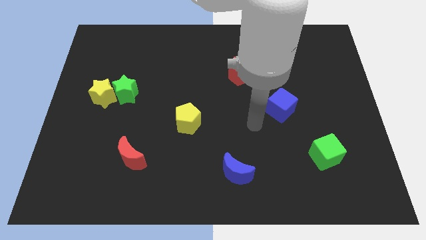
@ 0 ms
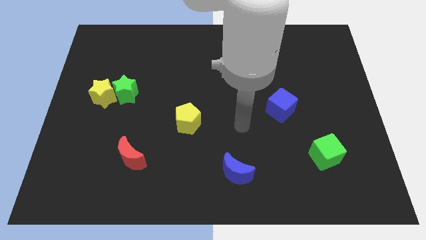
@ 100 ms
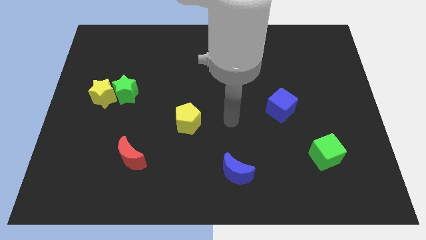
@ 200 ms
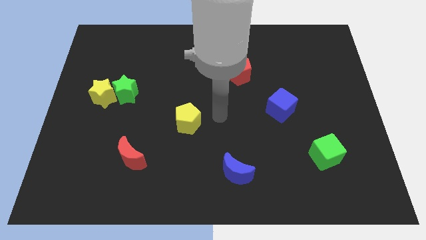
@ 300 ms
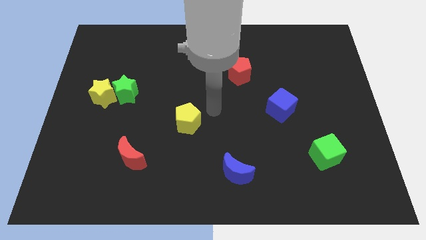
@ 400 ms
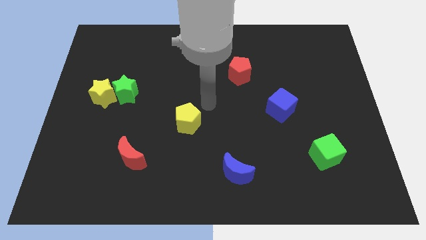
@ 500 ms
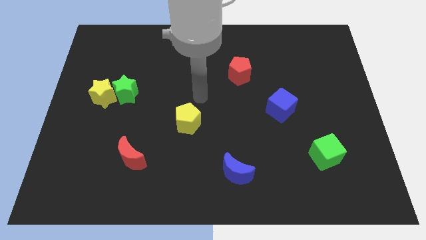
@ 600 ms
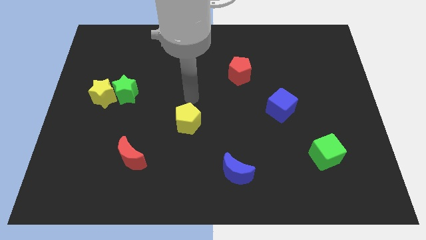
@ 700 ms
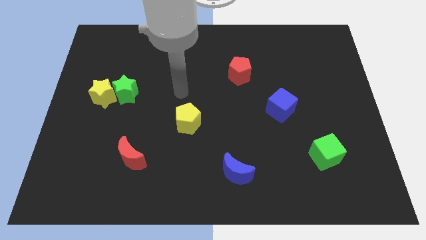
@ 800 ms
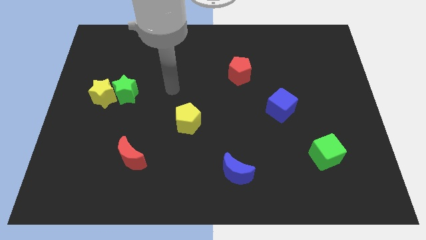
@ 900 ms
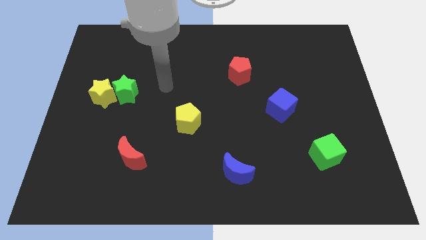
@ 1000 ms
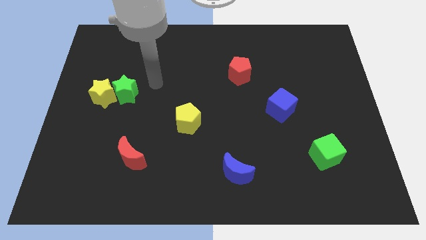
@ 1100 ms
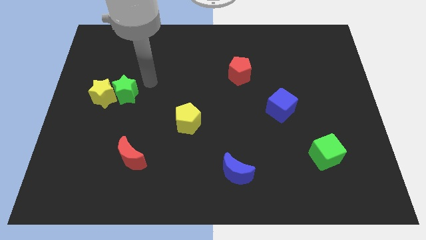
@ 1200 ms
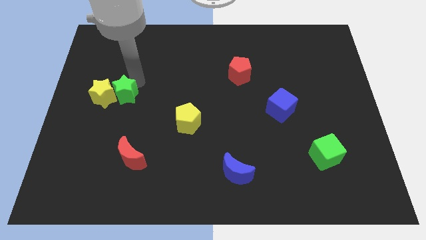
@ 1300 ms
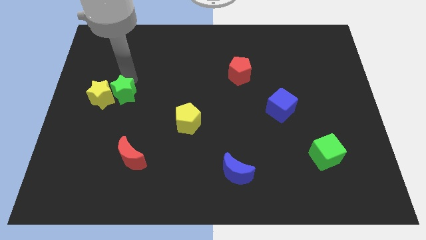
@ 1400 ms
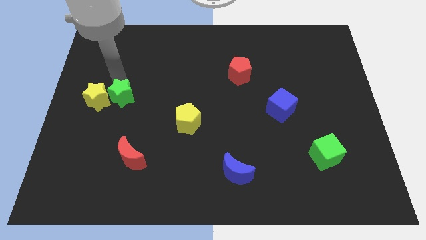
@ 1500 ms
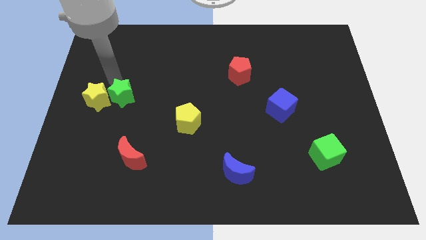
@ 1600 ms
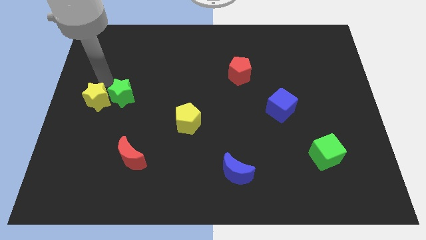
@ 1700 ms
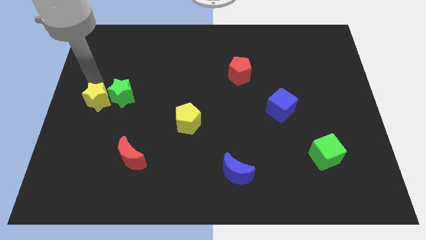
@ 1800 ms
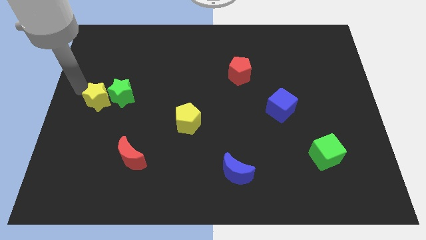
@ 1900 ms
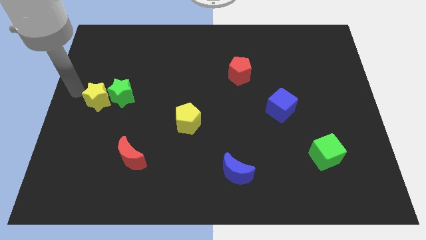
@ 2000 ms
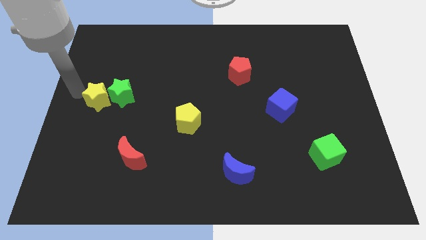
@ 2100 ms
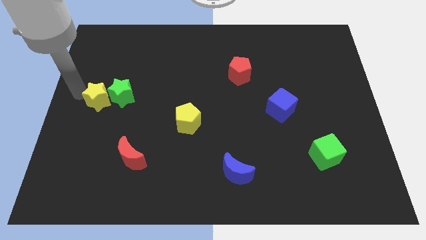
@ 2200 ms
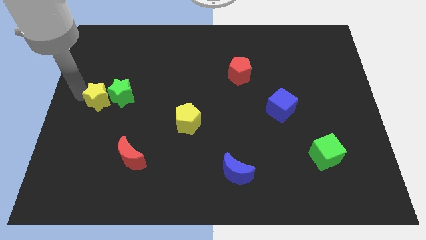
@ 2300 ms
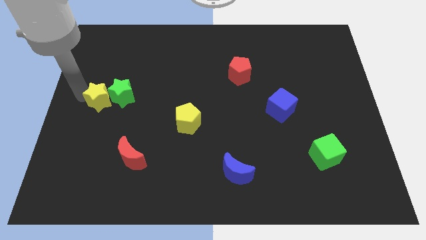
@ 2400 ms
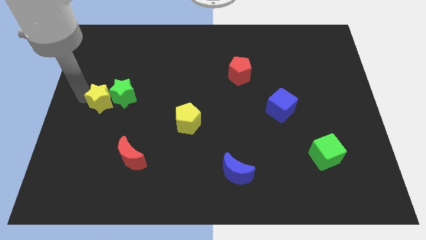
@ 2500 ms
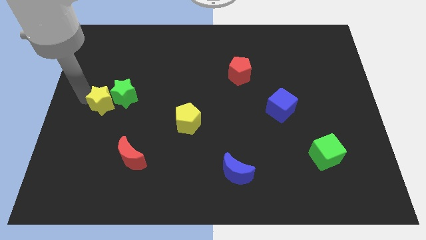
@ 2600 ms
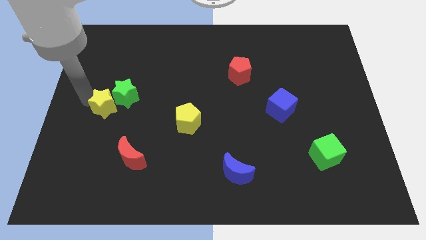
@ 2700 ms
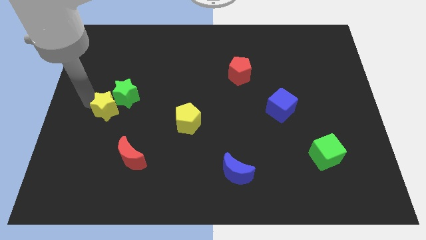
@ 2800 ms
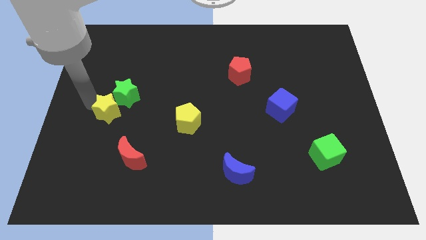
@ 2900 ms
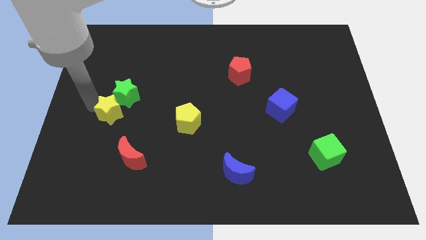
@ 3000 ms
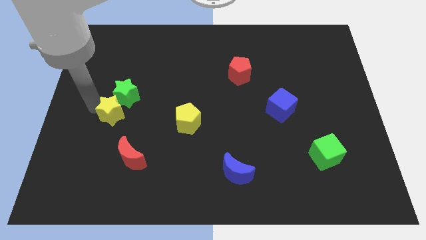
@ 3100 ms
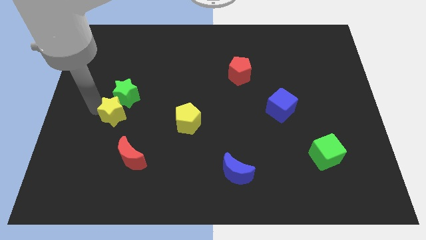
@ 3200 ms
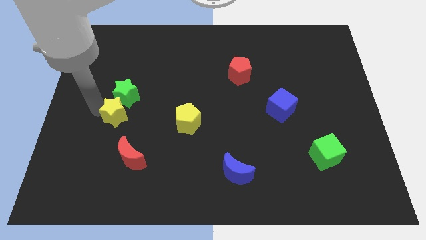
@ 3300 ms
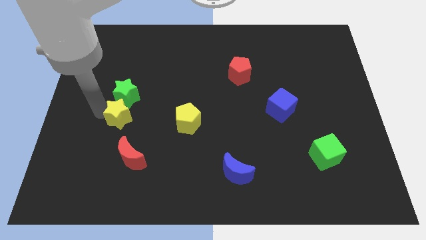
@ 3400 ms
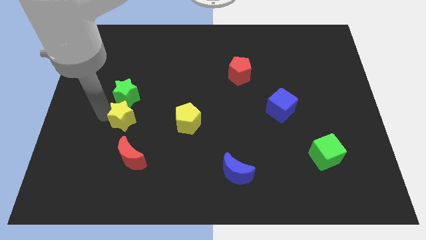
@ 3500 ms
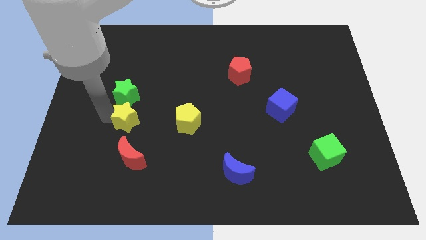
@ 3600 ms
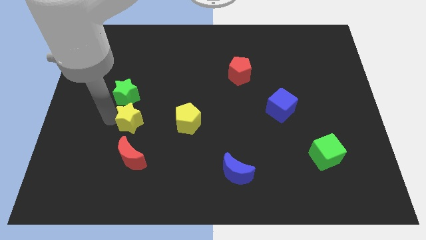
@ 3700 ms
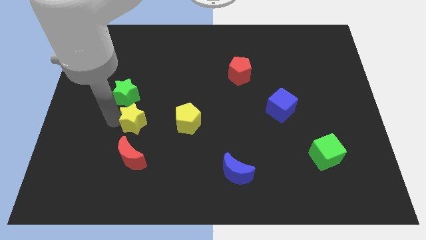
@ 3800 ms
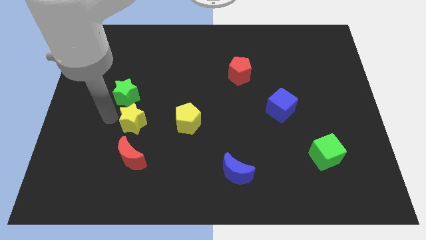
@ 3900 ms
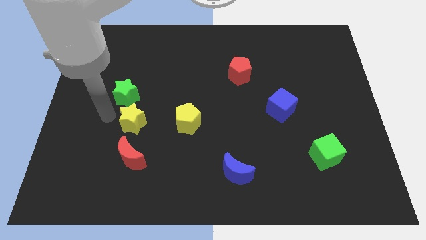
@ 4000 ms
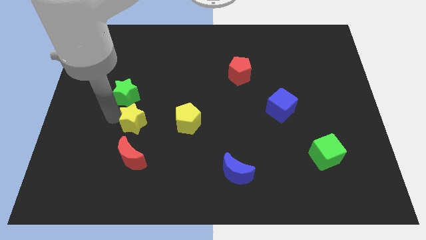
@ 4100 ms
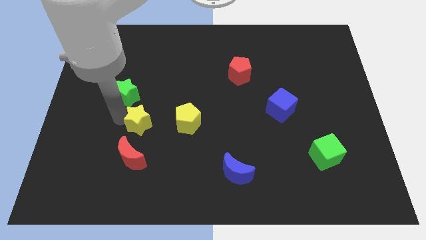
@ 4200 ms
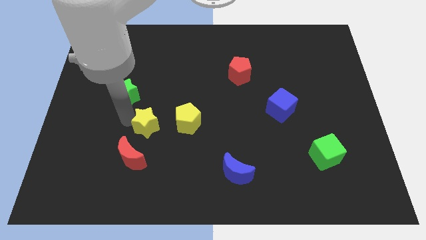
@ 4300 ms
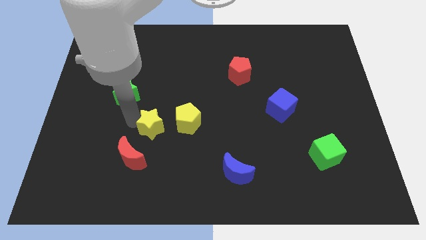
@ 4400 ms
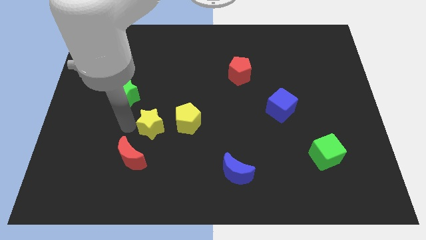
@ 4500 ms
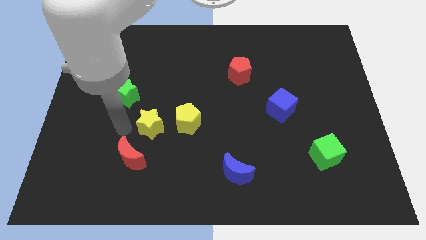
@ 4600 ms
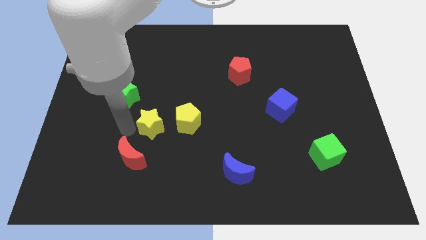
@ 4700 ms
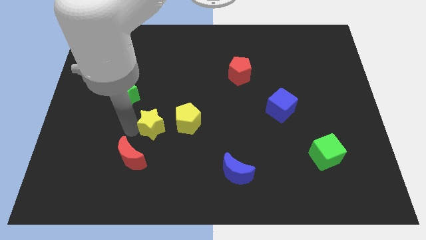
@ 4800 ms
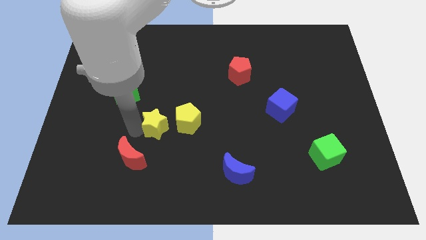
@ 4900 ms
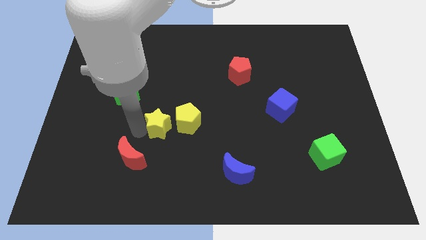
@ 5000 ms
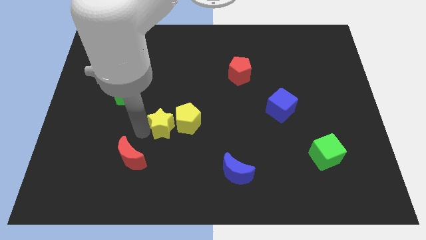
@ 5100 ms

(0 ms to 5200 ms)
move the yellow star close to the yellow pentagon

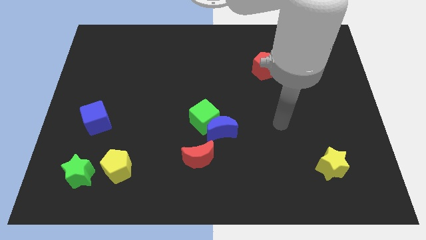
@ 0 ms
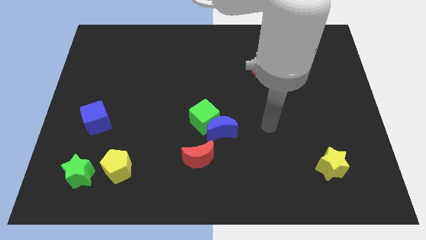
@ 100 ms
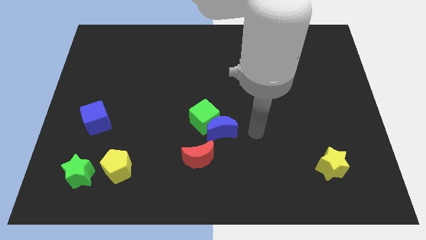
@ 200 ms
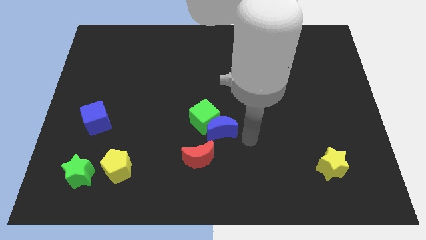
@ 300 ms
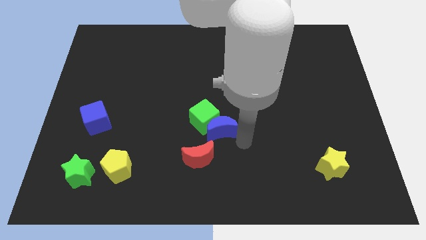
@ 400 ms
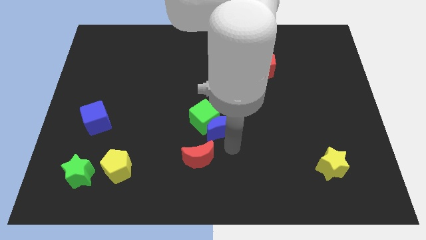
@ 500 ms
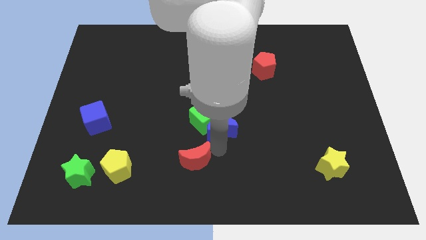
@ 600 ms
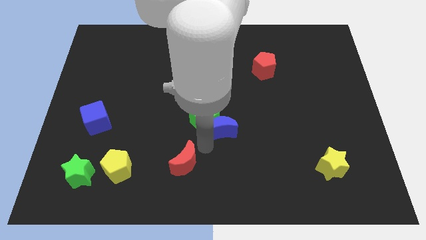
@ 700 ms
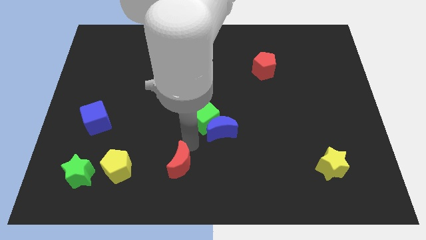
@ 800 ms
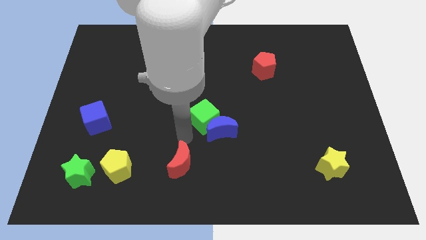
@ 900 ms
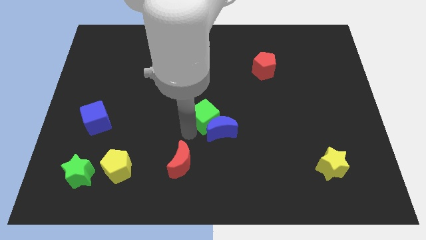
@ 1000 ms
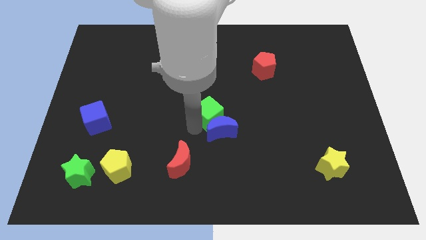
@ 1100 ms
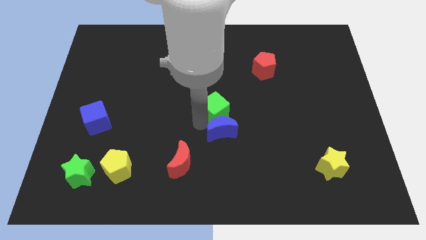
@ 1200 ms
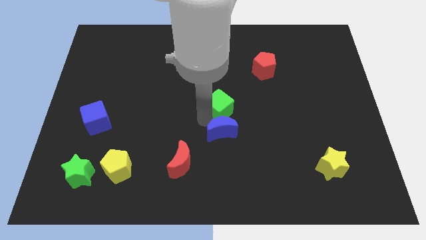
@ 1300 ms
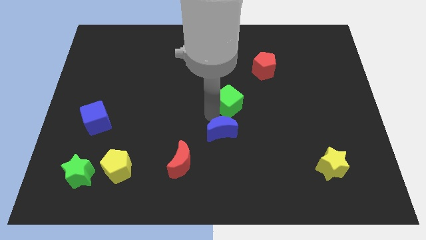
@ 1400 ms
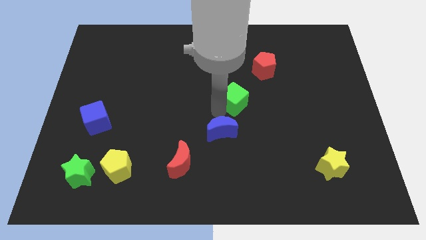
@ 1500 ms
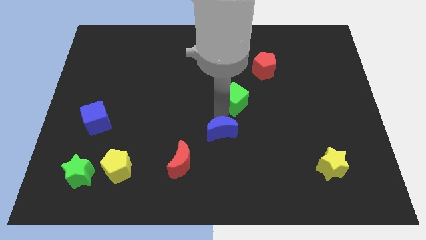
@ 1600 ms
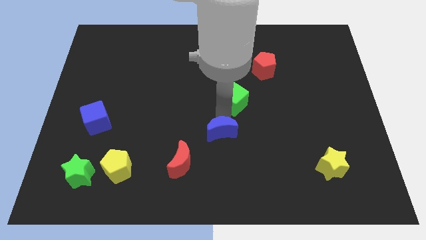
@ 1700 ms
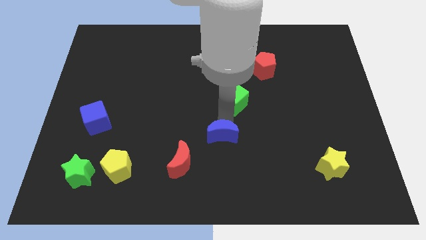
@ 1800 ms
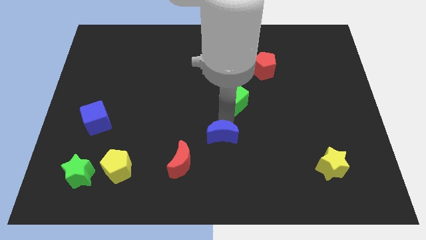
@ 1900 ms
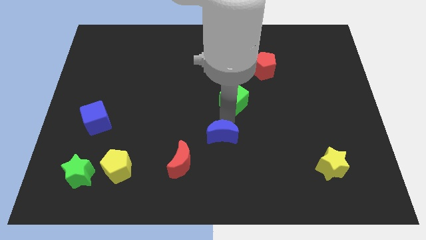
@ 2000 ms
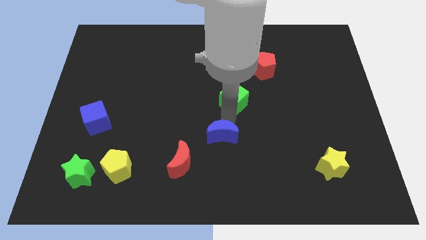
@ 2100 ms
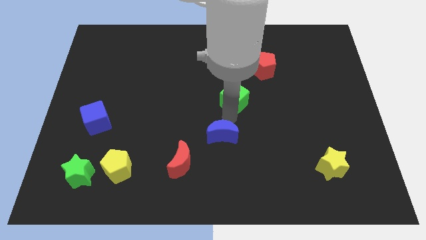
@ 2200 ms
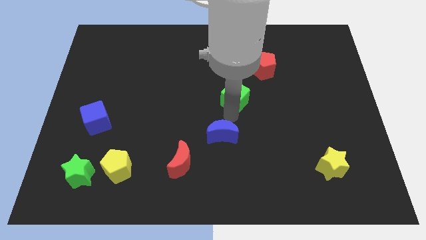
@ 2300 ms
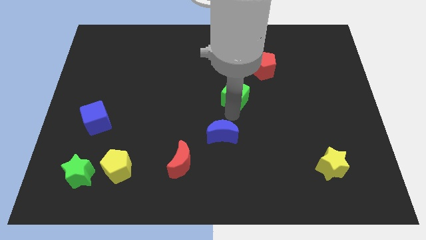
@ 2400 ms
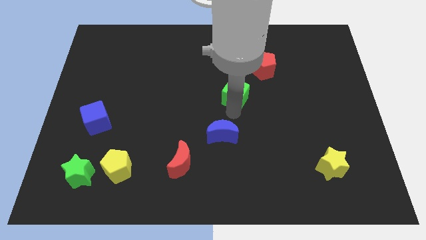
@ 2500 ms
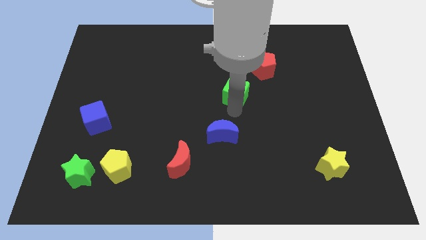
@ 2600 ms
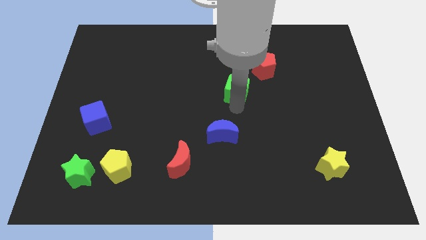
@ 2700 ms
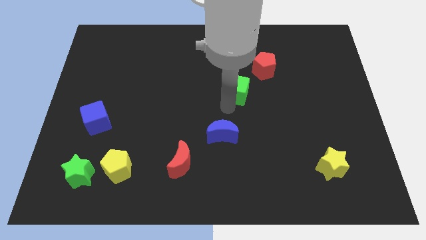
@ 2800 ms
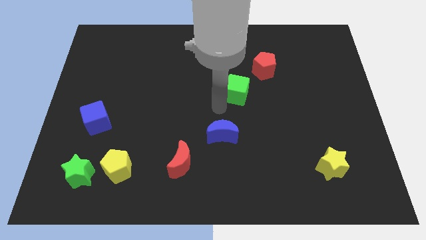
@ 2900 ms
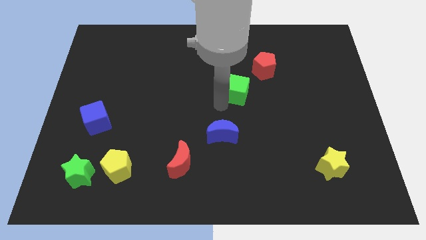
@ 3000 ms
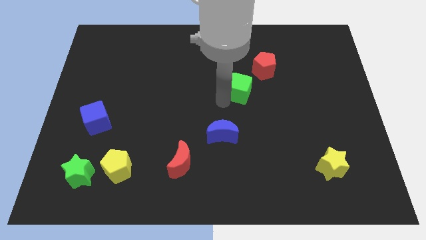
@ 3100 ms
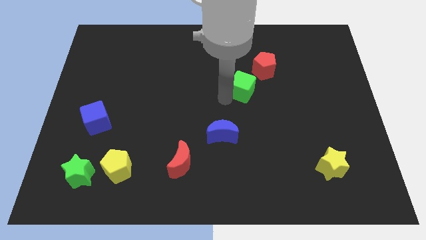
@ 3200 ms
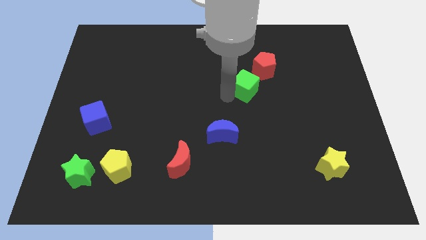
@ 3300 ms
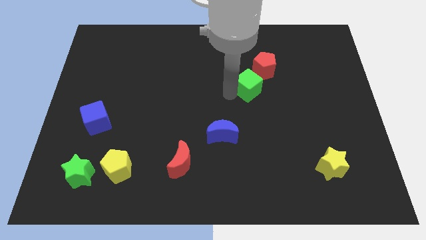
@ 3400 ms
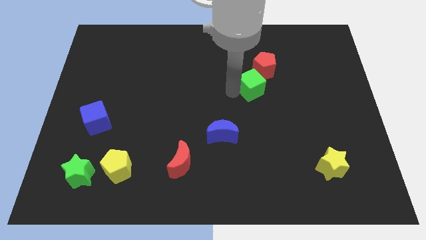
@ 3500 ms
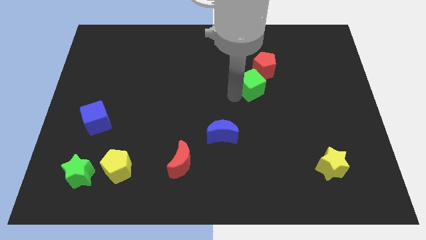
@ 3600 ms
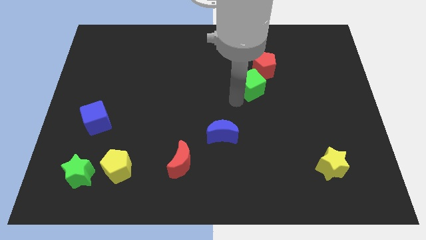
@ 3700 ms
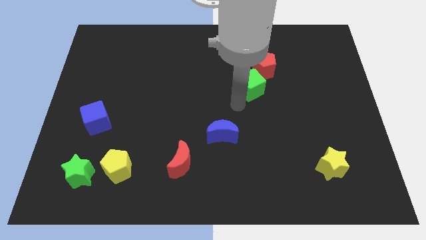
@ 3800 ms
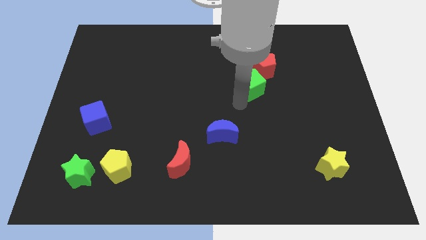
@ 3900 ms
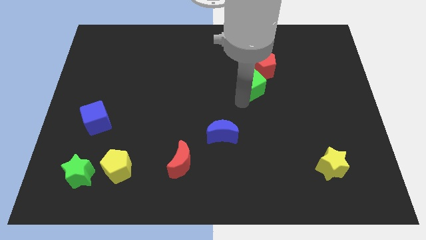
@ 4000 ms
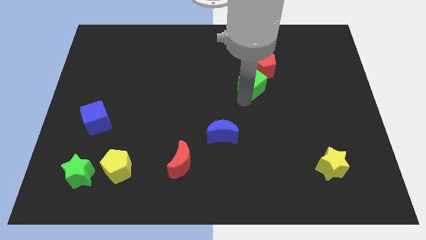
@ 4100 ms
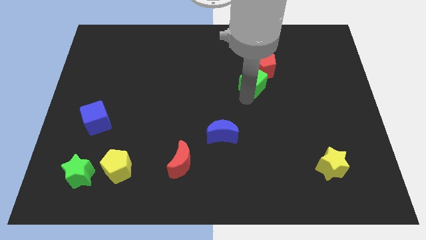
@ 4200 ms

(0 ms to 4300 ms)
push the green cube towards the red pentagon
